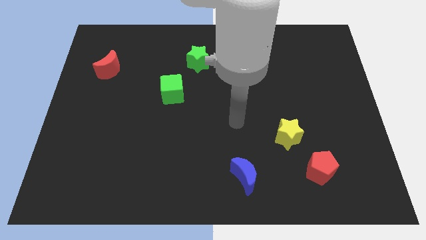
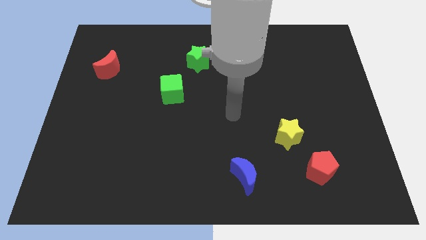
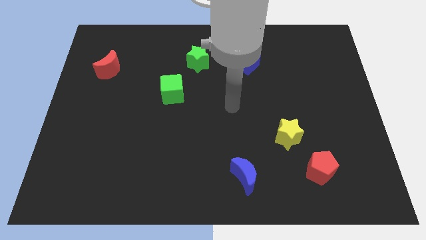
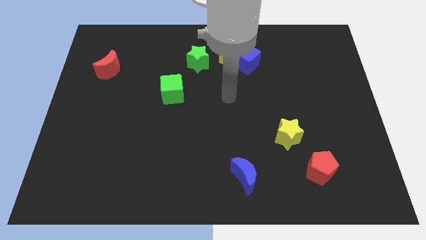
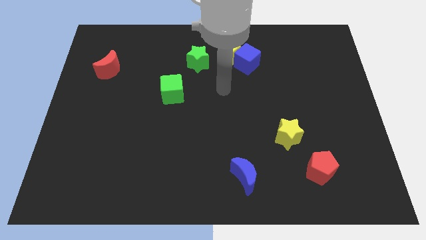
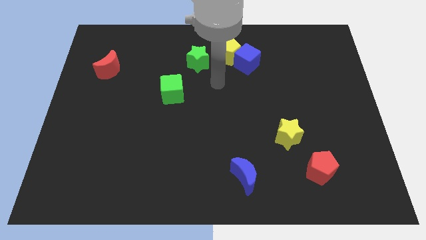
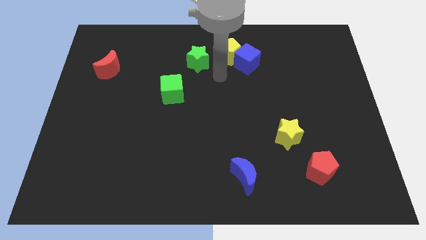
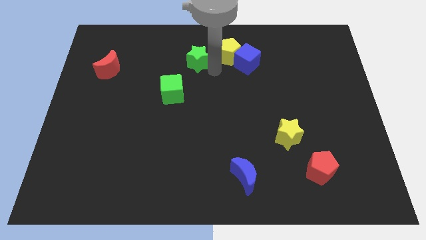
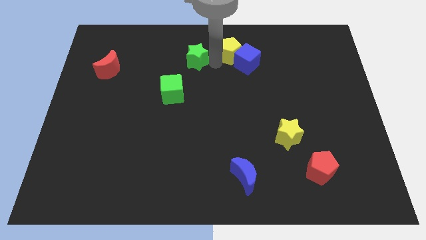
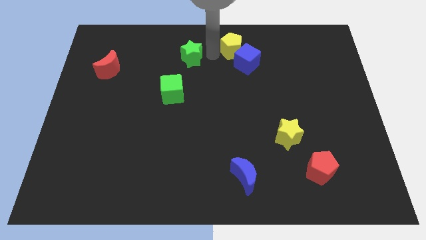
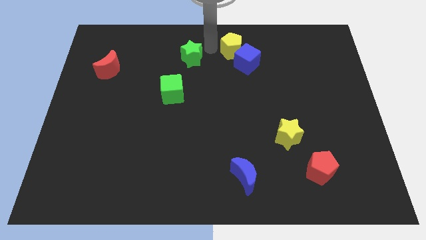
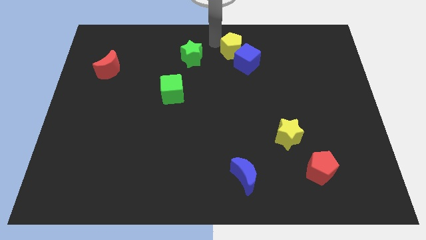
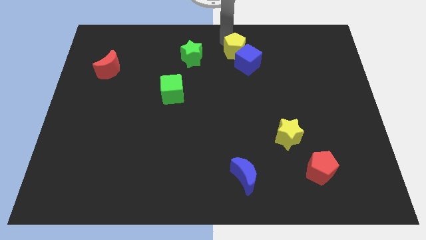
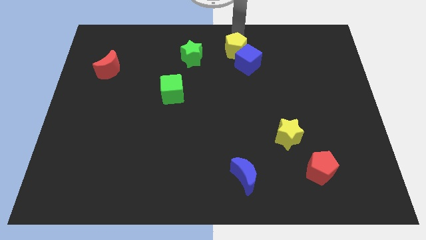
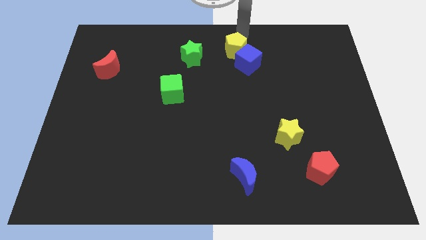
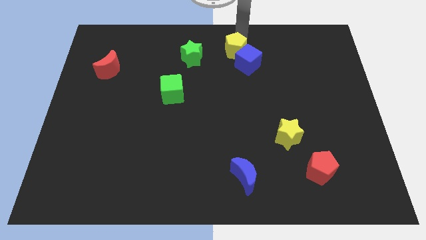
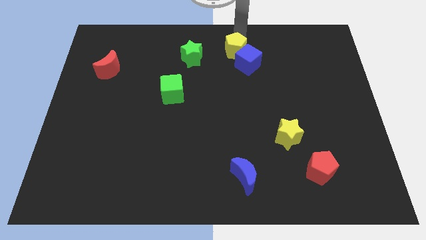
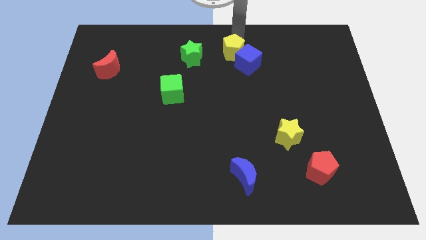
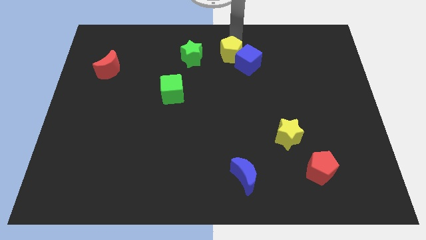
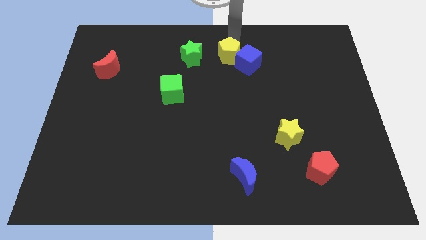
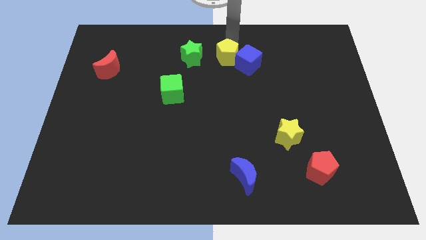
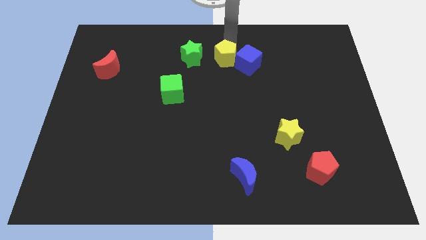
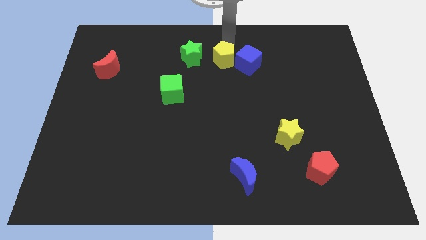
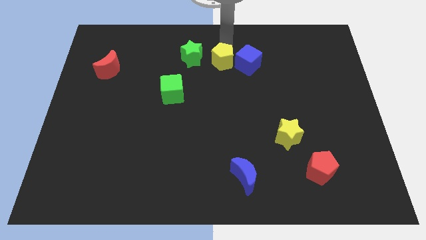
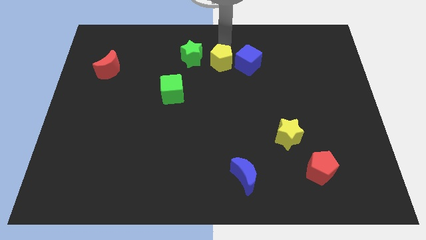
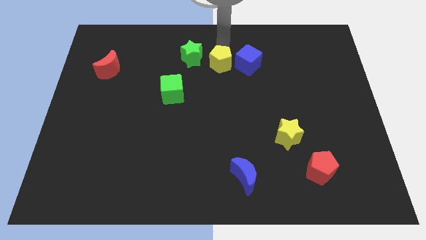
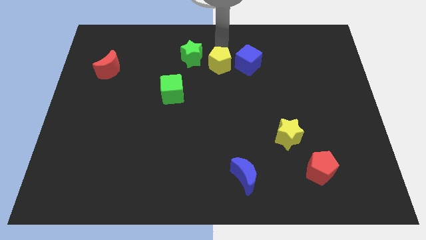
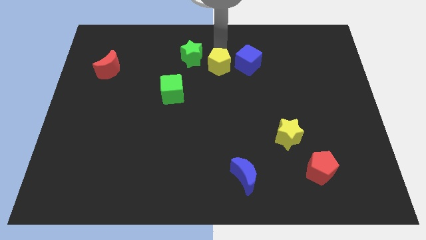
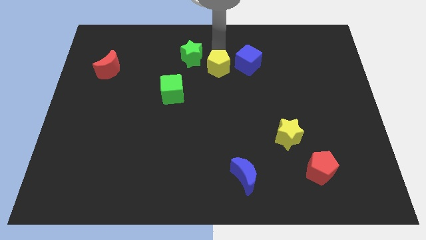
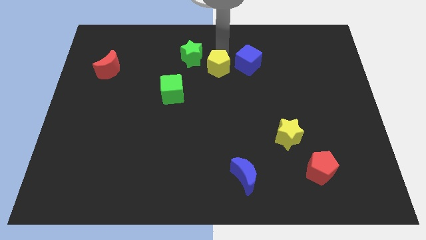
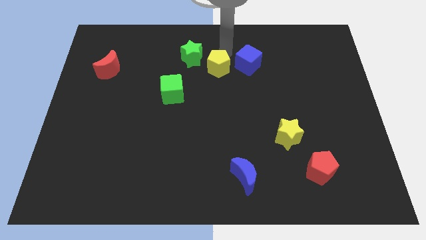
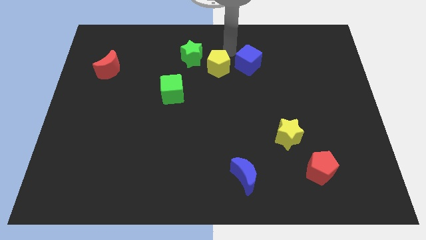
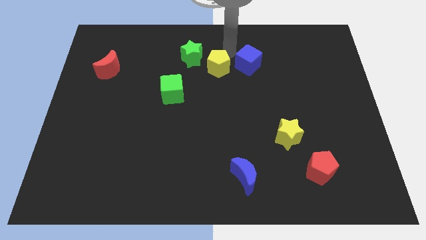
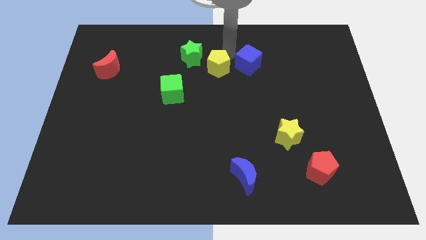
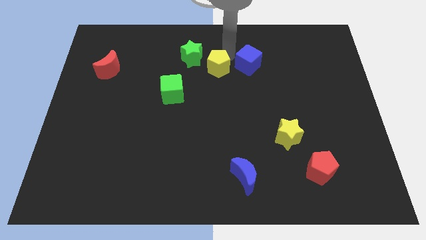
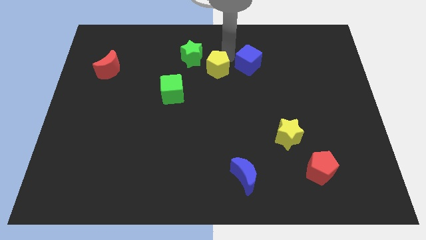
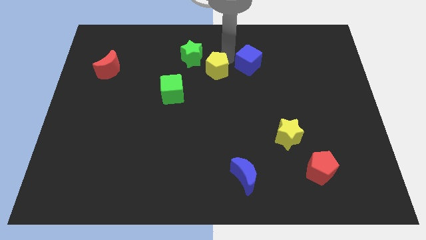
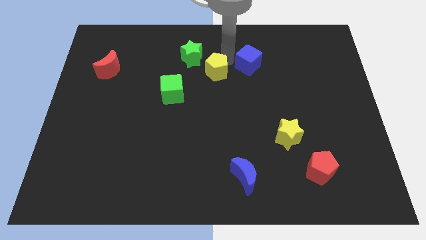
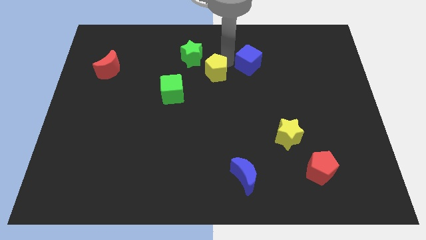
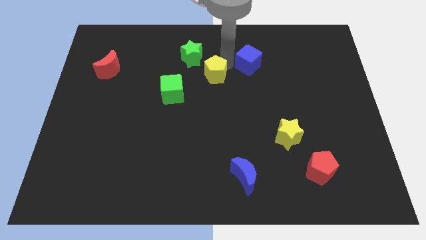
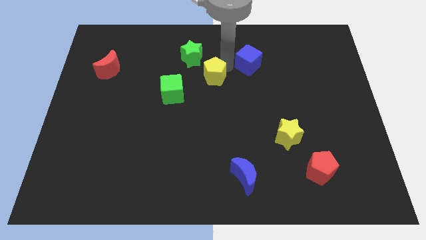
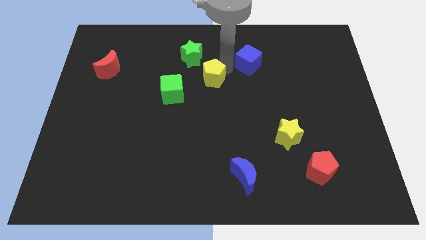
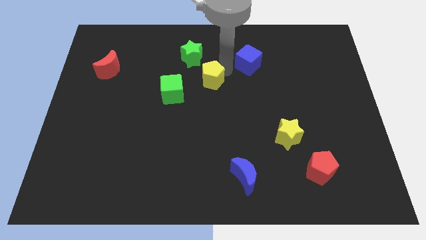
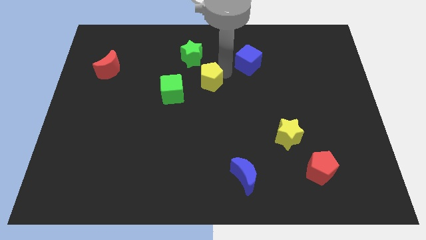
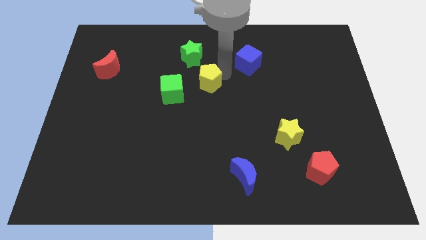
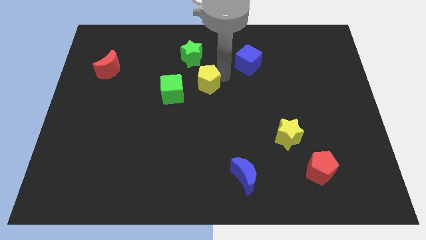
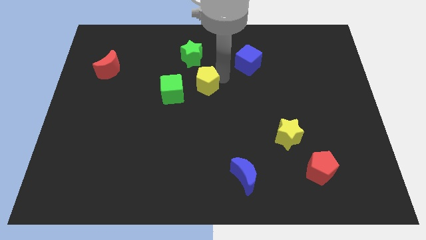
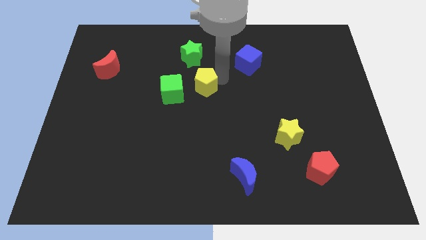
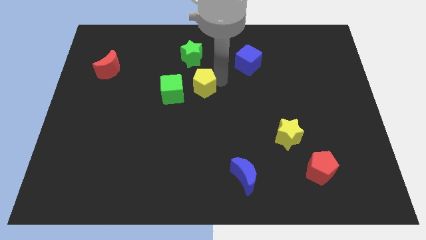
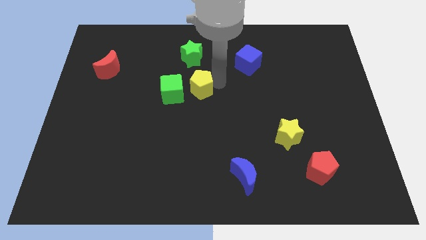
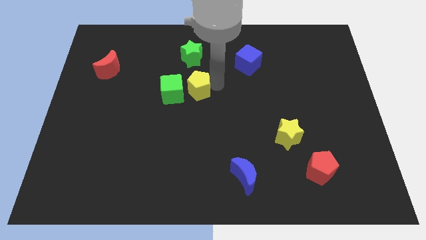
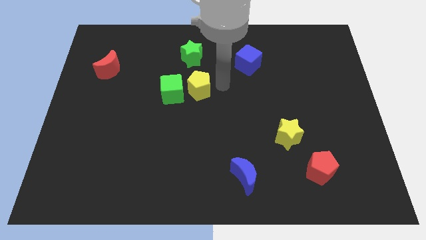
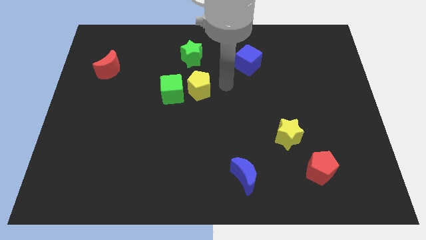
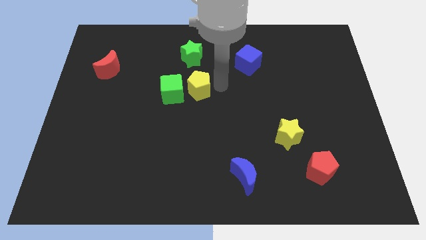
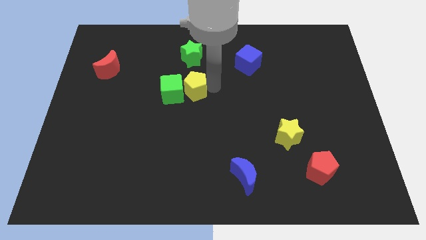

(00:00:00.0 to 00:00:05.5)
put the yellow pentagon close to the green cube

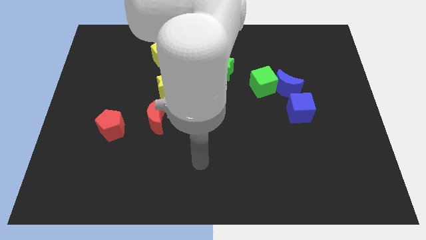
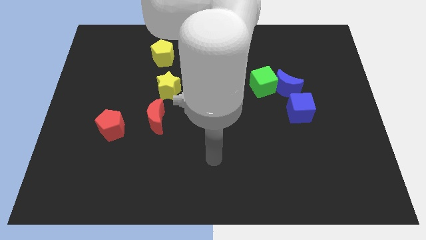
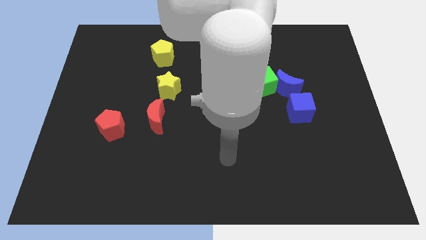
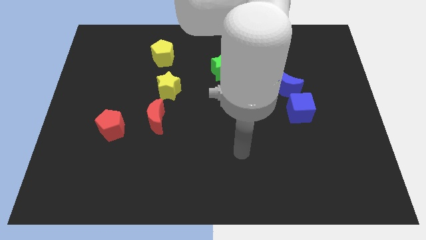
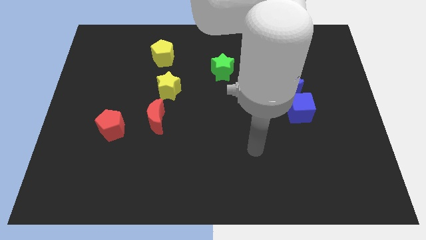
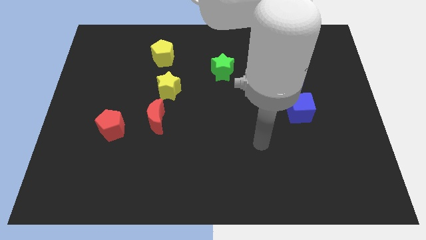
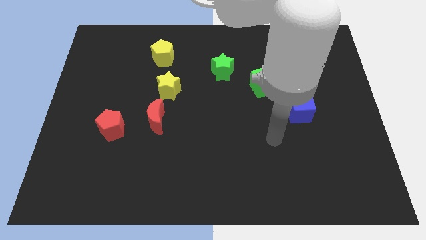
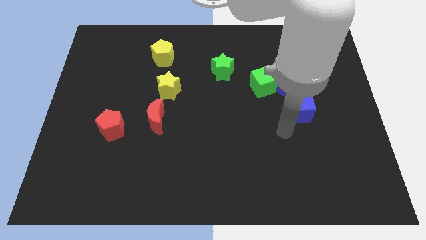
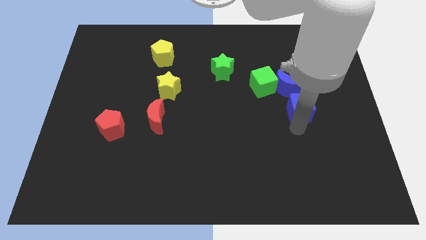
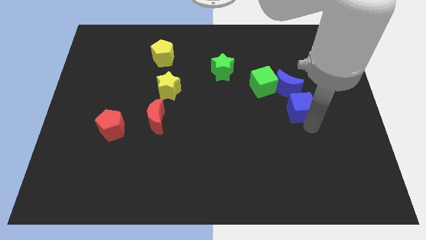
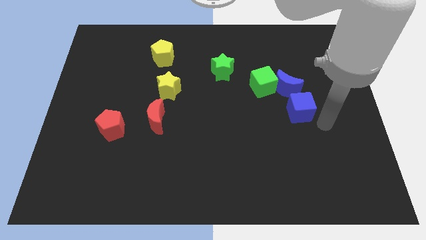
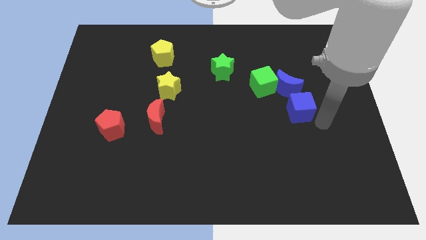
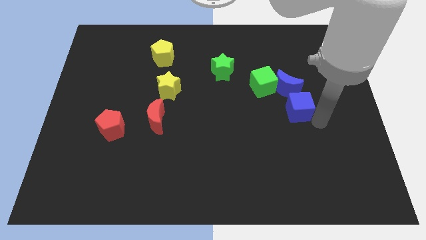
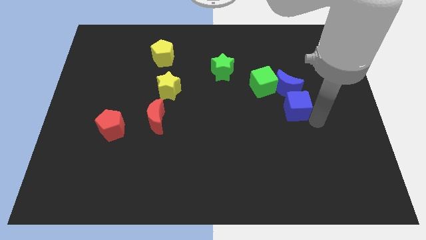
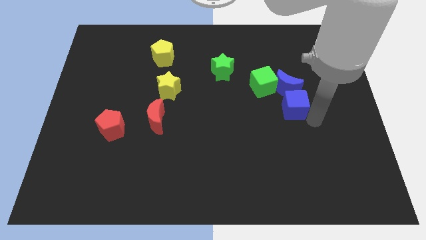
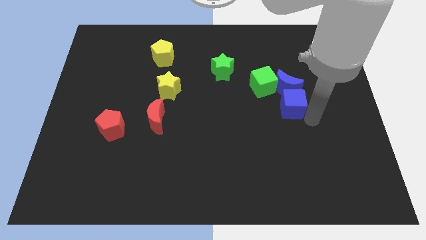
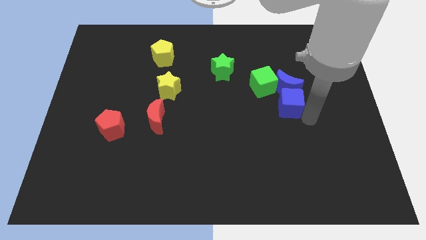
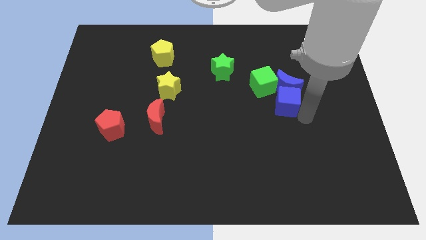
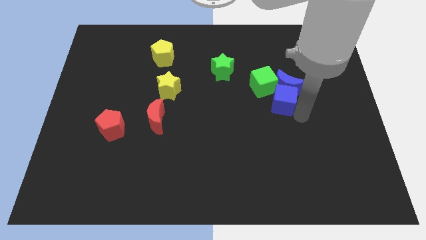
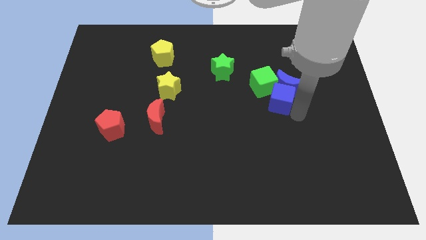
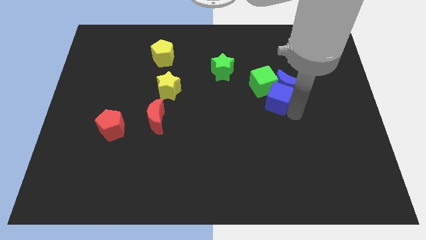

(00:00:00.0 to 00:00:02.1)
put the blue cube next to the green cube
